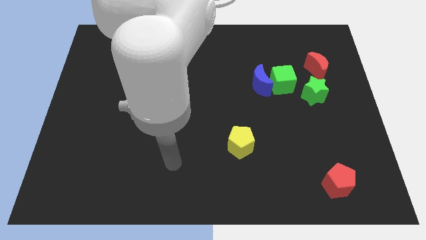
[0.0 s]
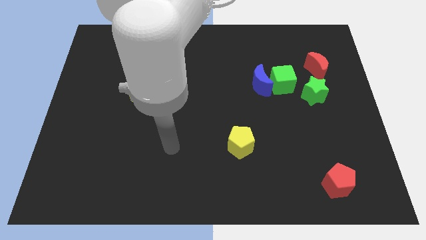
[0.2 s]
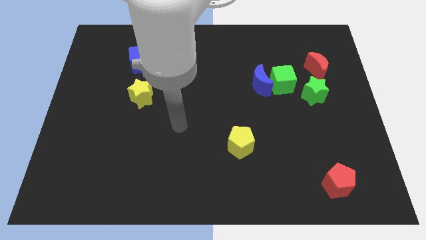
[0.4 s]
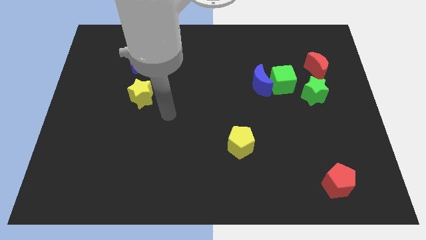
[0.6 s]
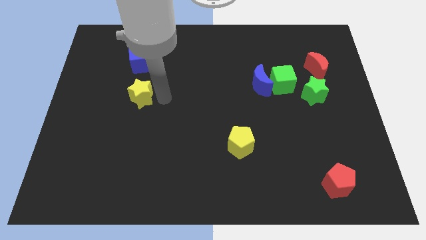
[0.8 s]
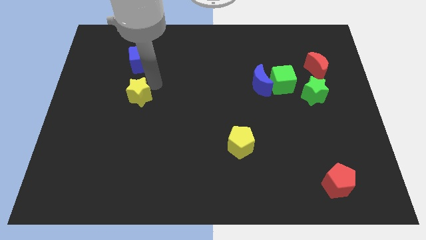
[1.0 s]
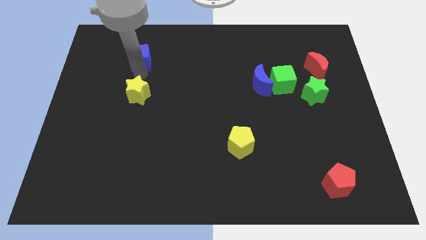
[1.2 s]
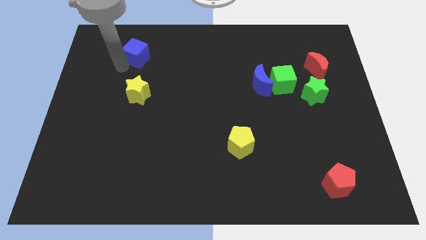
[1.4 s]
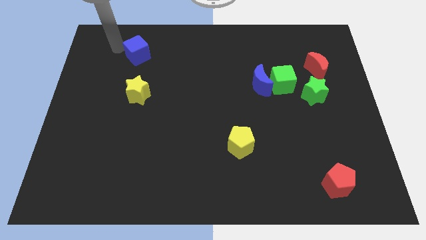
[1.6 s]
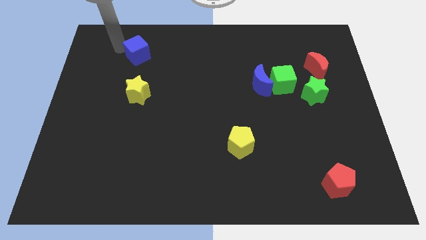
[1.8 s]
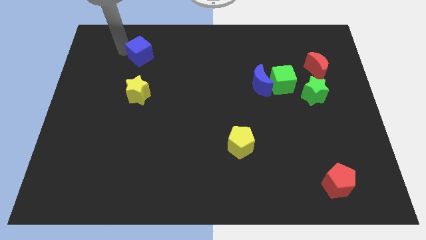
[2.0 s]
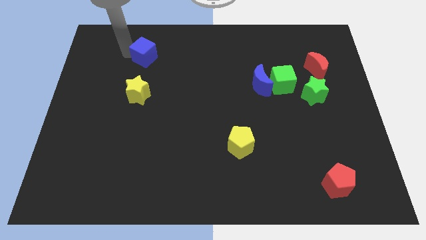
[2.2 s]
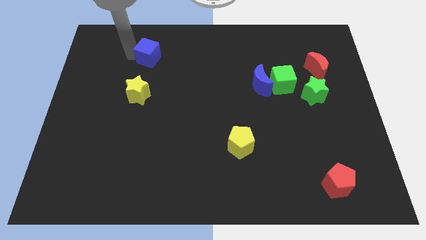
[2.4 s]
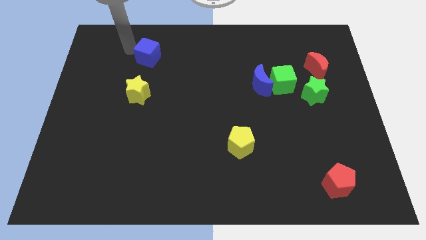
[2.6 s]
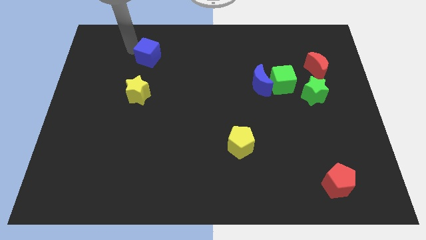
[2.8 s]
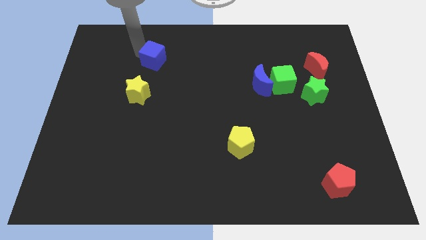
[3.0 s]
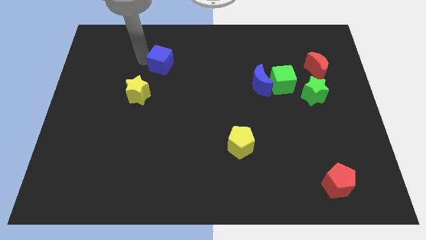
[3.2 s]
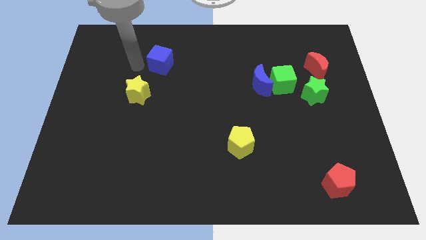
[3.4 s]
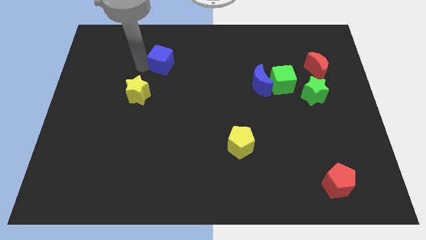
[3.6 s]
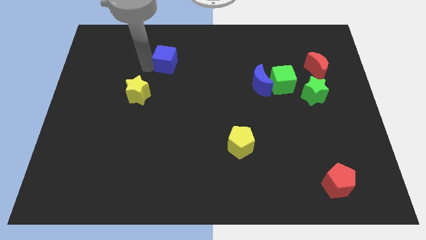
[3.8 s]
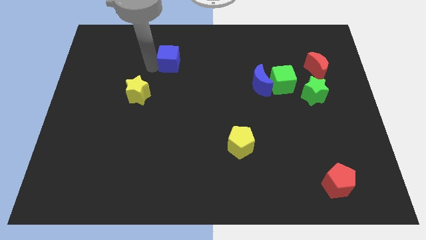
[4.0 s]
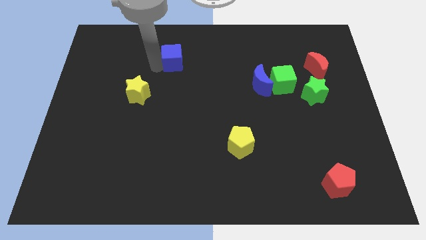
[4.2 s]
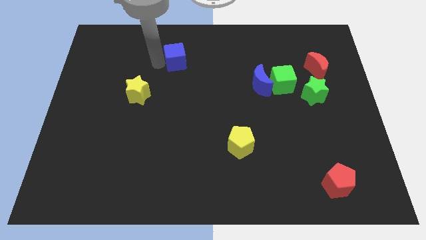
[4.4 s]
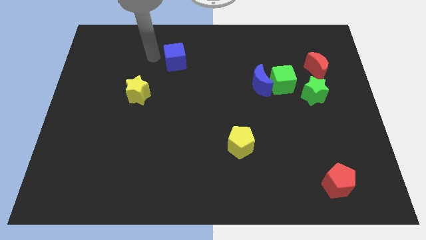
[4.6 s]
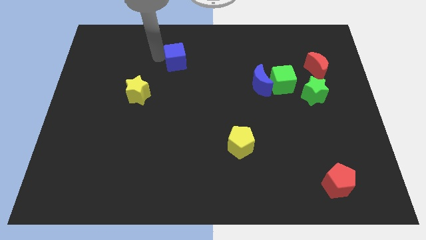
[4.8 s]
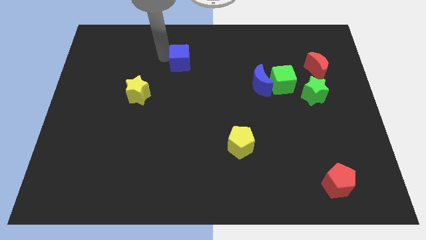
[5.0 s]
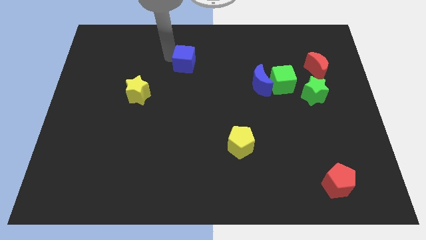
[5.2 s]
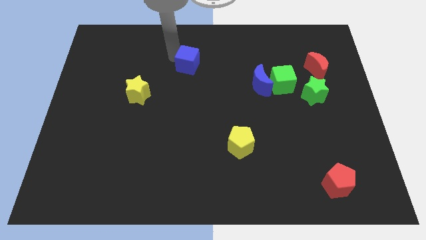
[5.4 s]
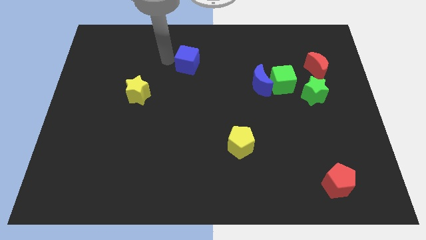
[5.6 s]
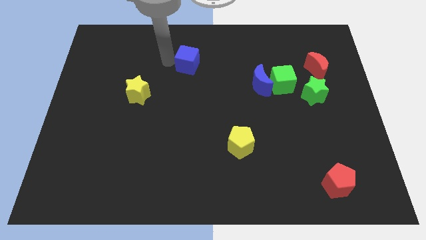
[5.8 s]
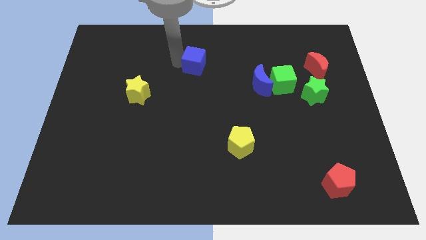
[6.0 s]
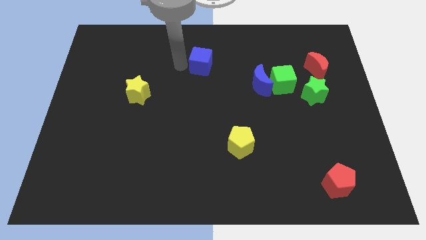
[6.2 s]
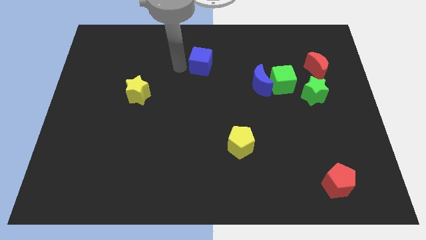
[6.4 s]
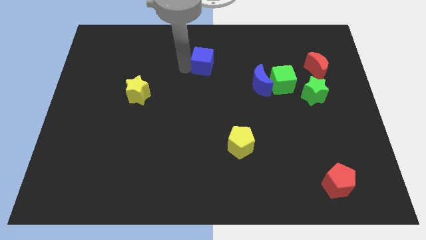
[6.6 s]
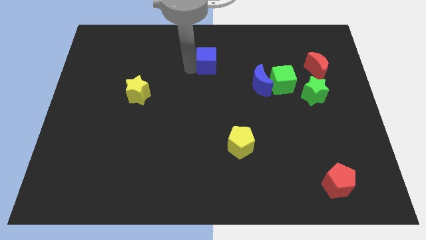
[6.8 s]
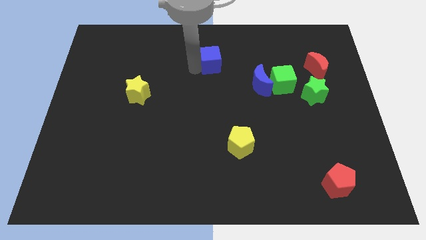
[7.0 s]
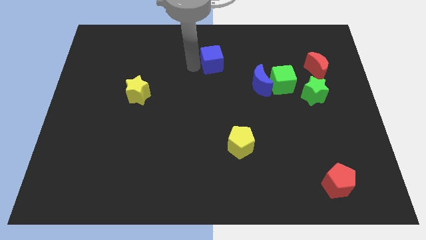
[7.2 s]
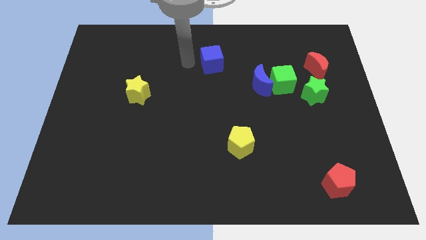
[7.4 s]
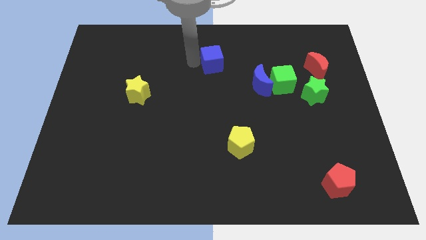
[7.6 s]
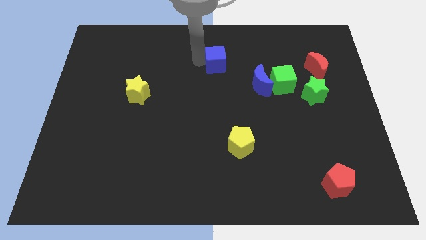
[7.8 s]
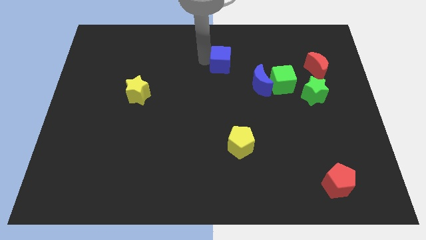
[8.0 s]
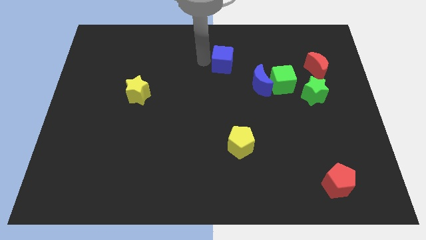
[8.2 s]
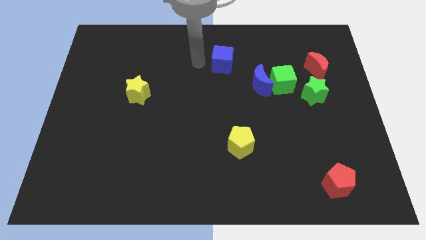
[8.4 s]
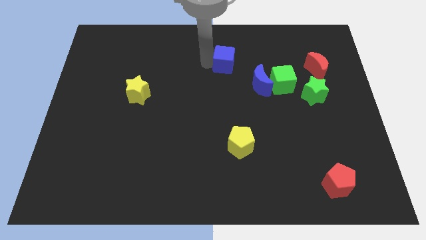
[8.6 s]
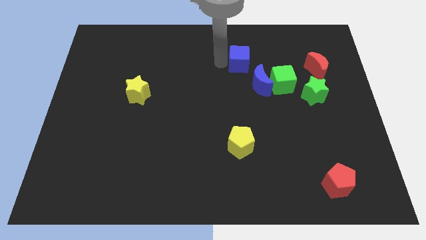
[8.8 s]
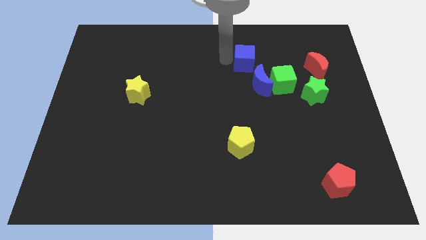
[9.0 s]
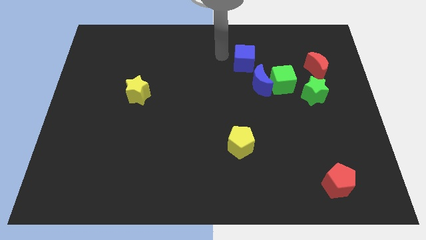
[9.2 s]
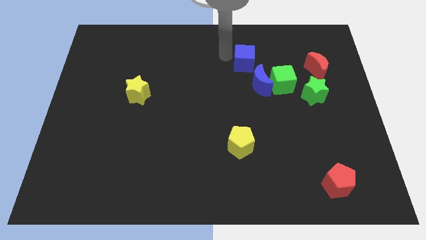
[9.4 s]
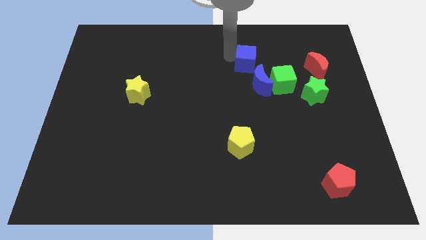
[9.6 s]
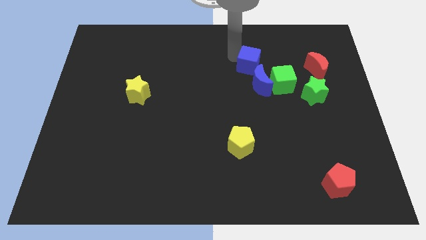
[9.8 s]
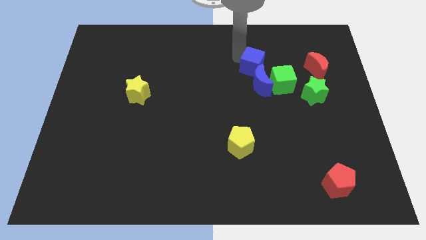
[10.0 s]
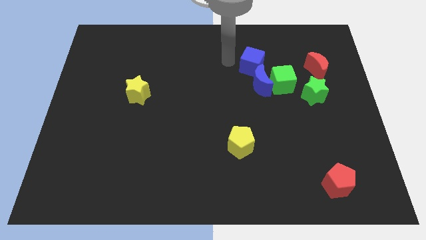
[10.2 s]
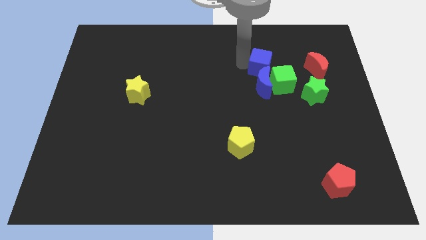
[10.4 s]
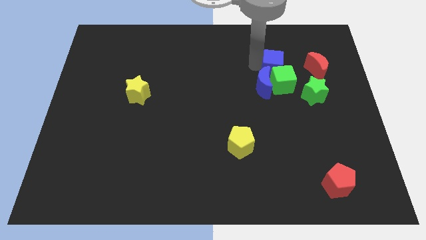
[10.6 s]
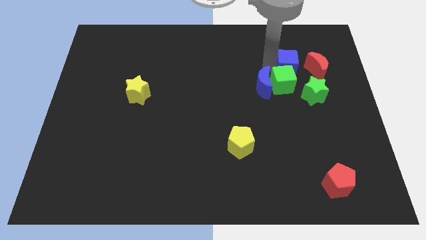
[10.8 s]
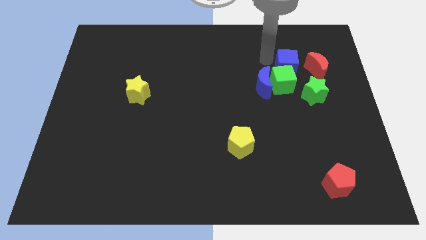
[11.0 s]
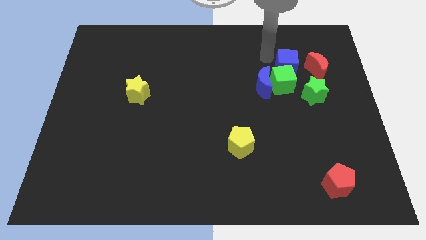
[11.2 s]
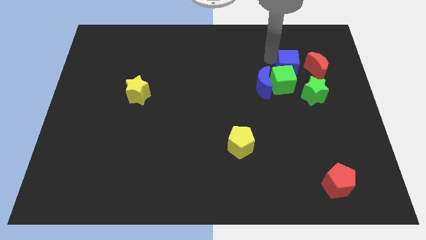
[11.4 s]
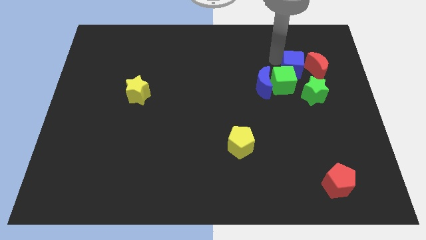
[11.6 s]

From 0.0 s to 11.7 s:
put the blue cube next to the red moon

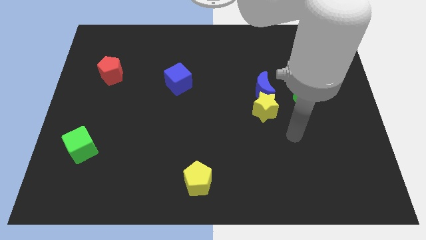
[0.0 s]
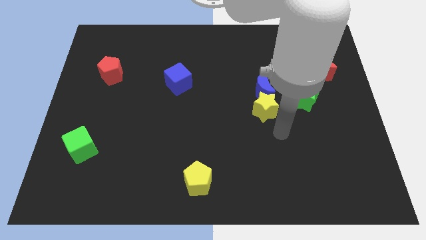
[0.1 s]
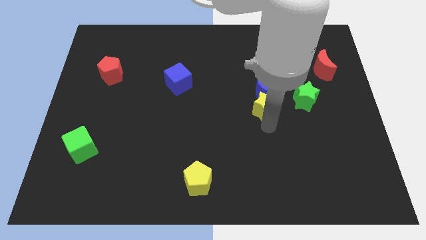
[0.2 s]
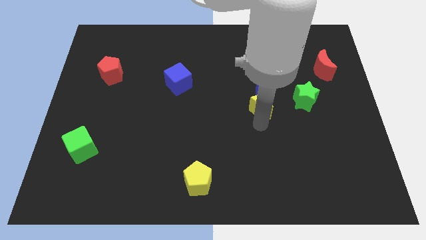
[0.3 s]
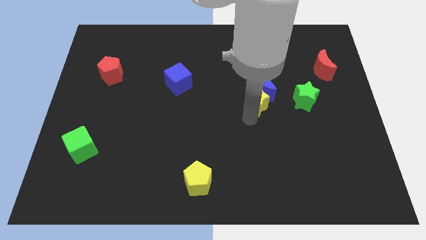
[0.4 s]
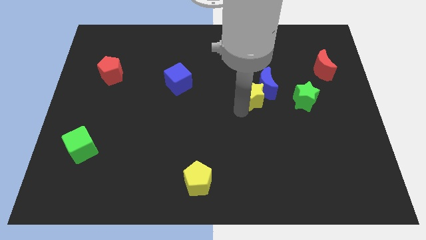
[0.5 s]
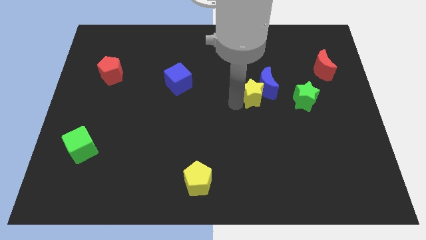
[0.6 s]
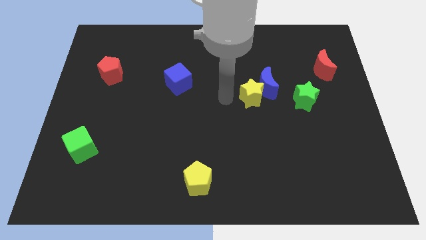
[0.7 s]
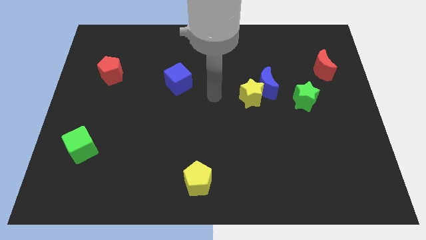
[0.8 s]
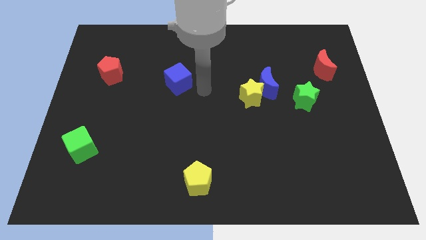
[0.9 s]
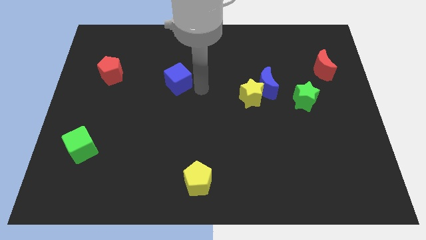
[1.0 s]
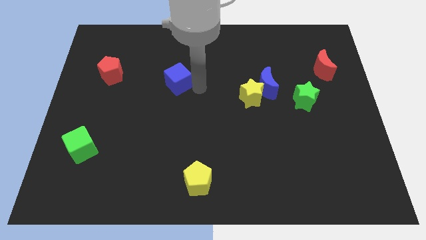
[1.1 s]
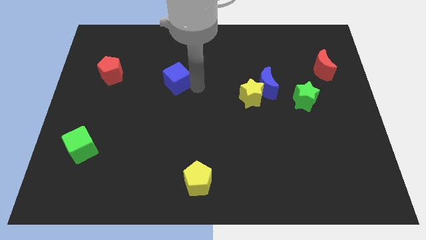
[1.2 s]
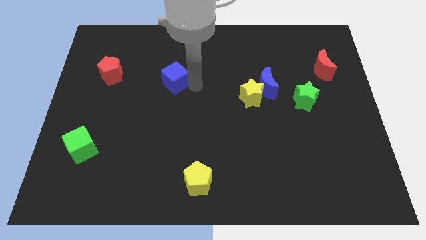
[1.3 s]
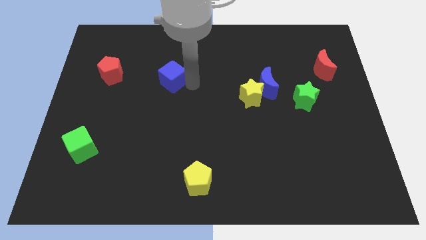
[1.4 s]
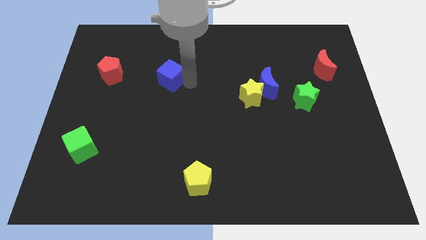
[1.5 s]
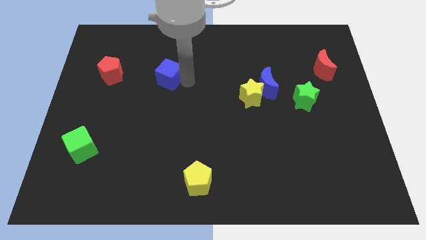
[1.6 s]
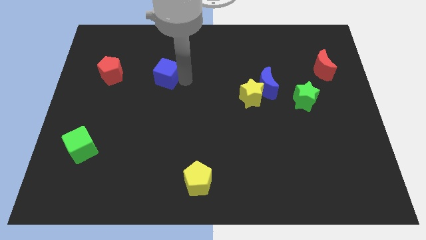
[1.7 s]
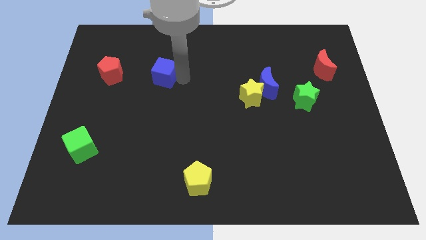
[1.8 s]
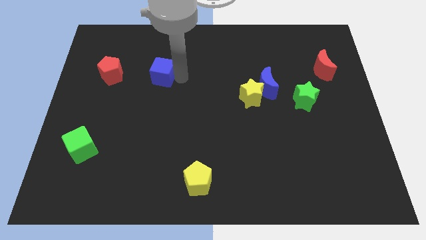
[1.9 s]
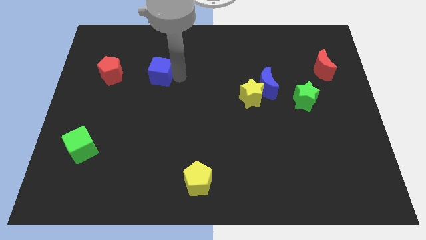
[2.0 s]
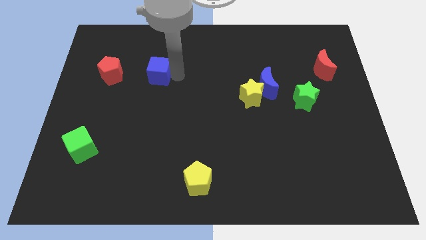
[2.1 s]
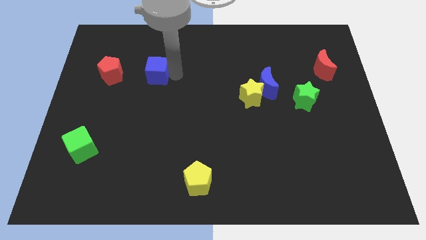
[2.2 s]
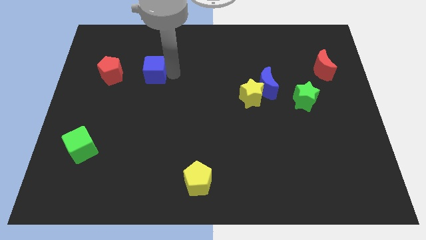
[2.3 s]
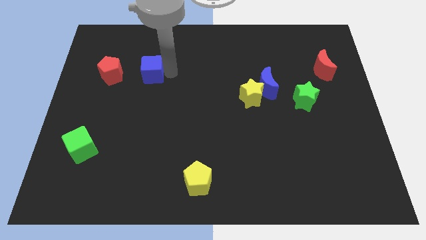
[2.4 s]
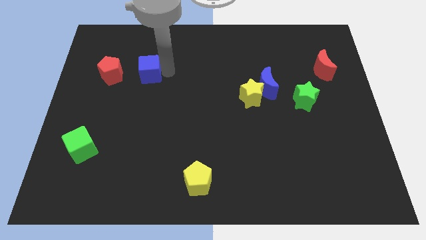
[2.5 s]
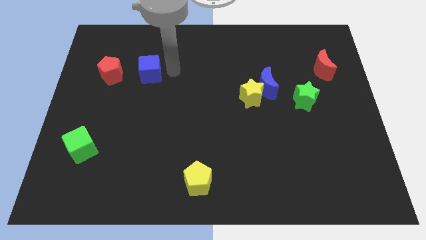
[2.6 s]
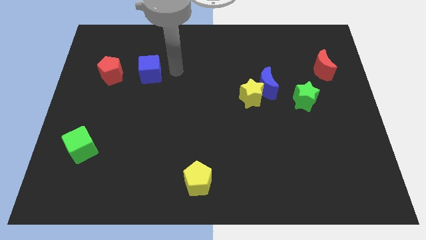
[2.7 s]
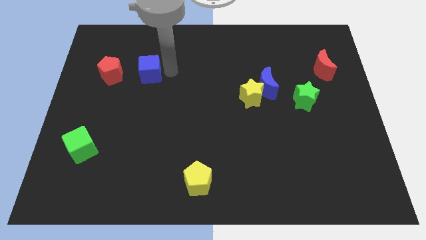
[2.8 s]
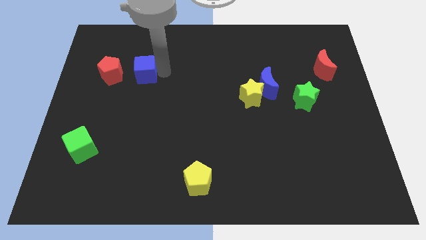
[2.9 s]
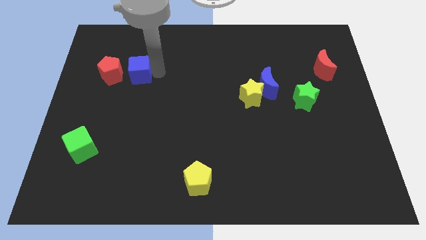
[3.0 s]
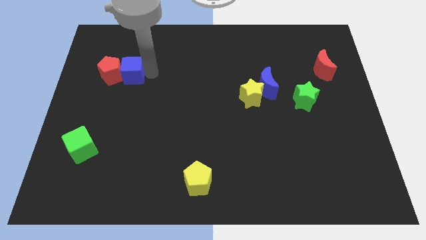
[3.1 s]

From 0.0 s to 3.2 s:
slide the blue cube close to the red pentagon
